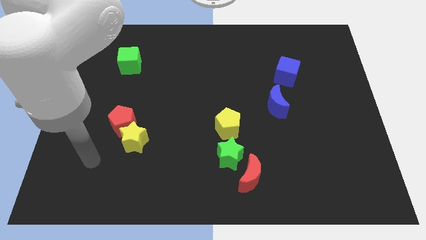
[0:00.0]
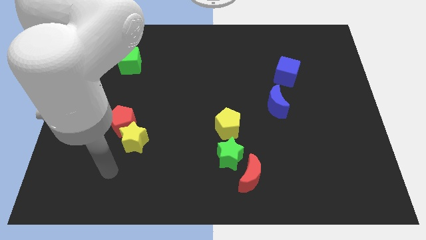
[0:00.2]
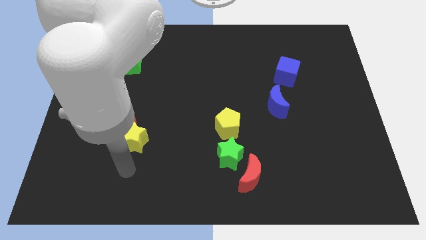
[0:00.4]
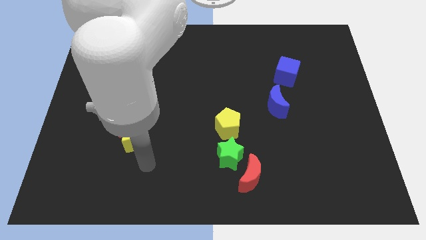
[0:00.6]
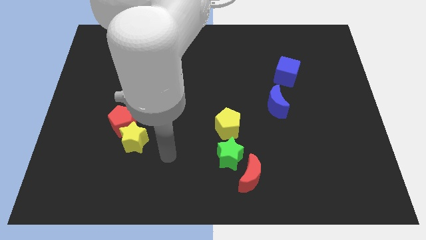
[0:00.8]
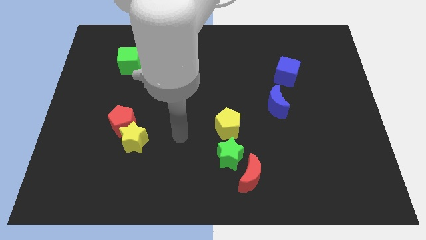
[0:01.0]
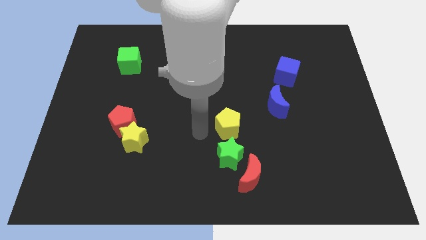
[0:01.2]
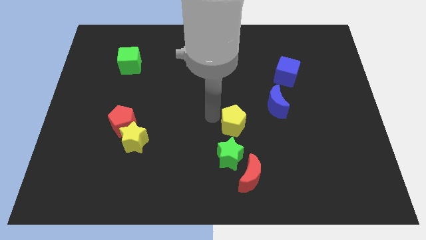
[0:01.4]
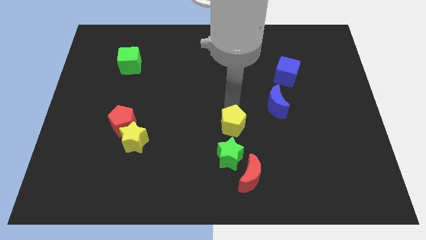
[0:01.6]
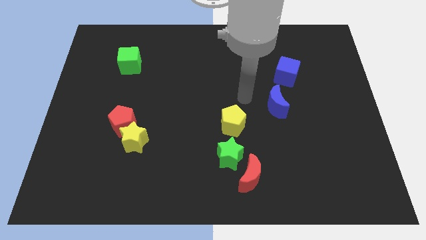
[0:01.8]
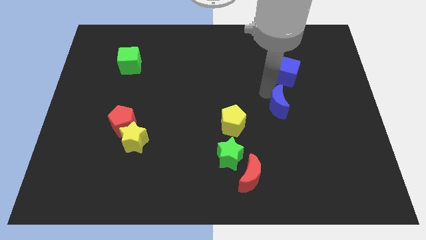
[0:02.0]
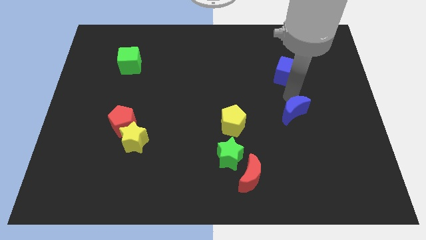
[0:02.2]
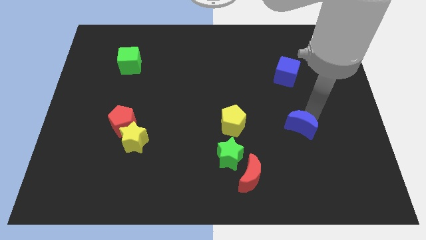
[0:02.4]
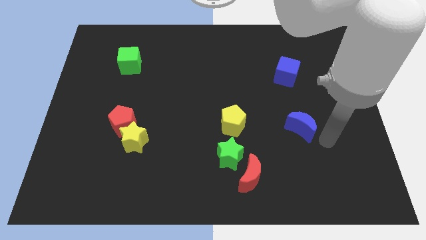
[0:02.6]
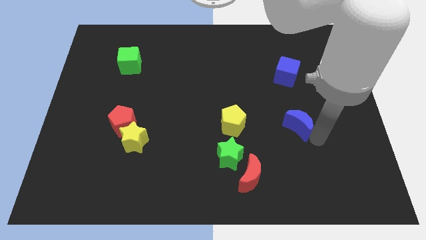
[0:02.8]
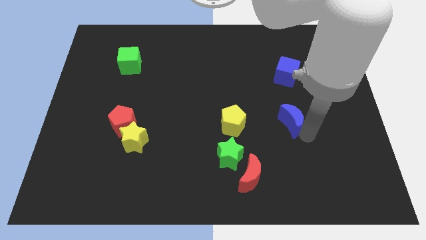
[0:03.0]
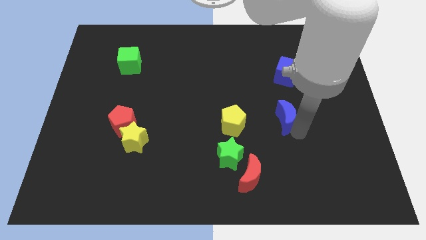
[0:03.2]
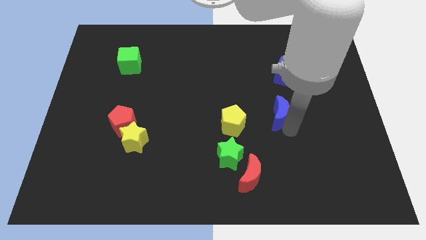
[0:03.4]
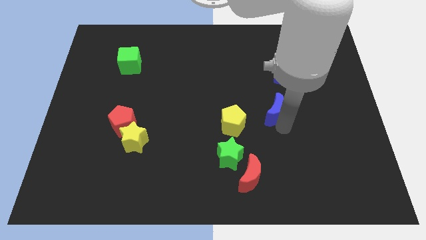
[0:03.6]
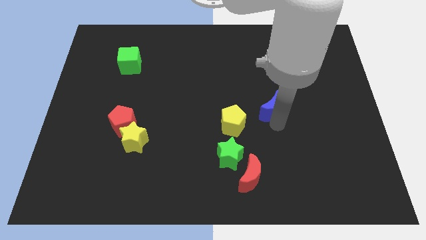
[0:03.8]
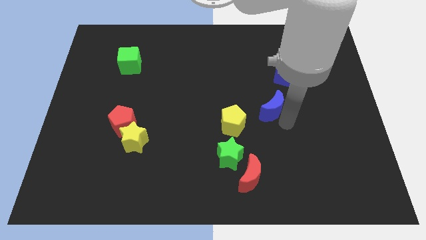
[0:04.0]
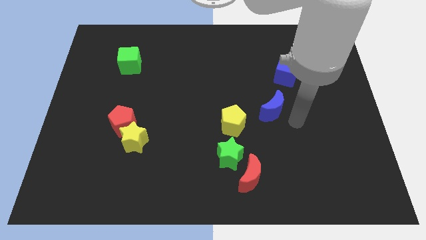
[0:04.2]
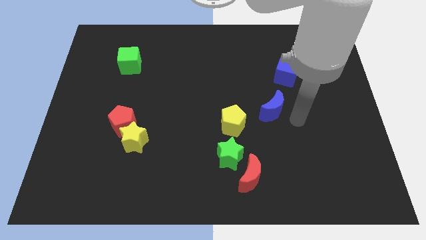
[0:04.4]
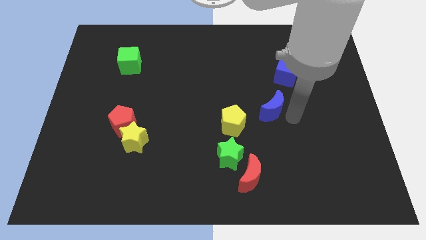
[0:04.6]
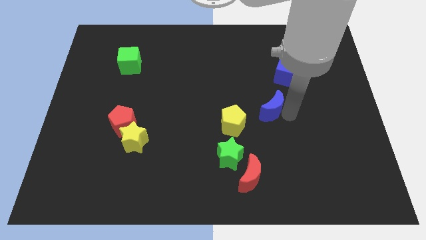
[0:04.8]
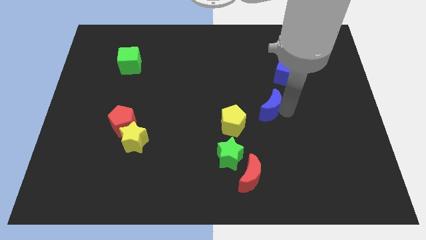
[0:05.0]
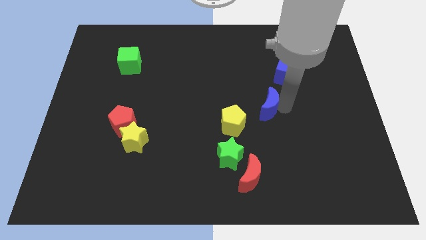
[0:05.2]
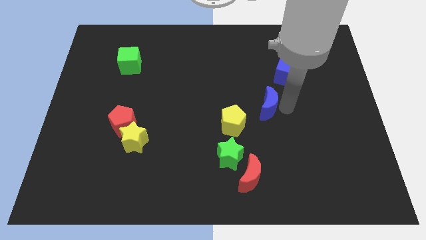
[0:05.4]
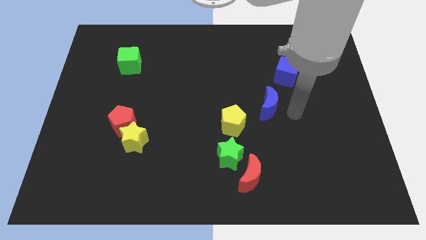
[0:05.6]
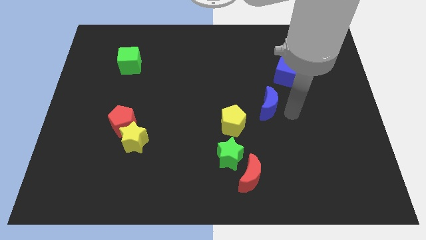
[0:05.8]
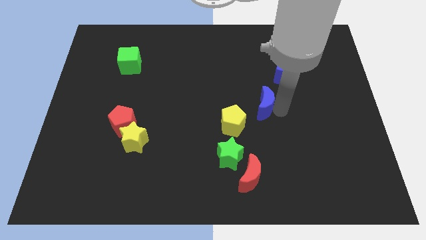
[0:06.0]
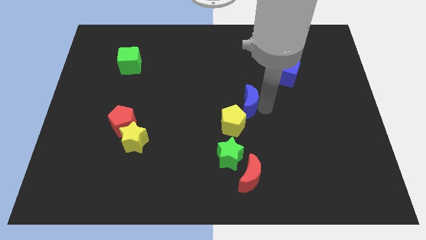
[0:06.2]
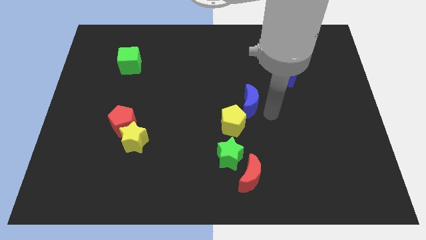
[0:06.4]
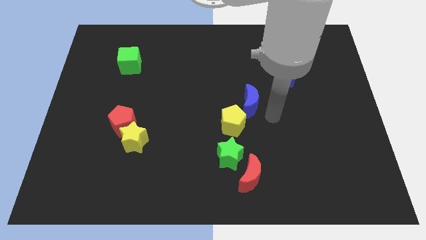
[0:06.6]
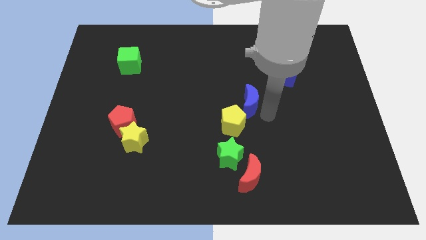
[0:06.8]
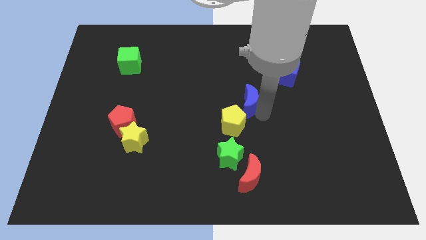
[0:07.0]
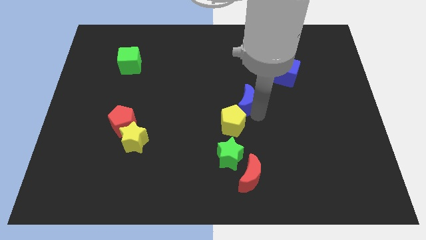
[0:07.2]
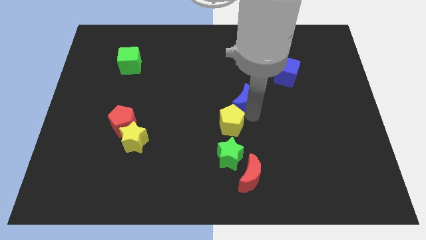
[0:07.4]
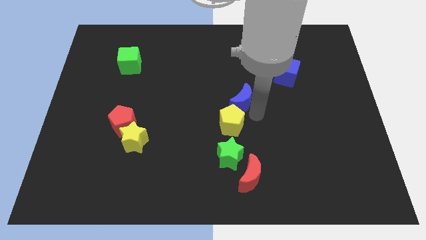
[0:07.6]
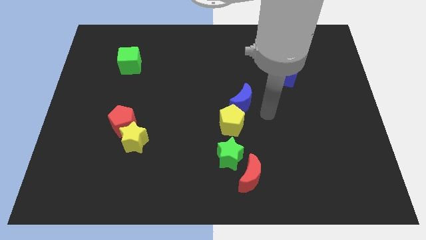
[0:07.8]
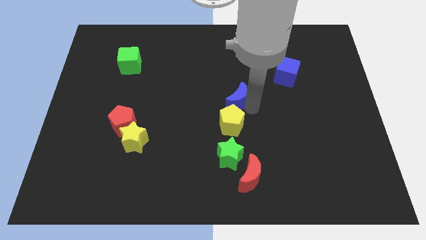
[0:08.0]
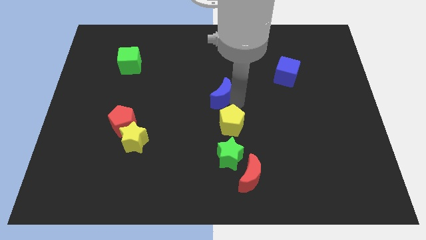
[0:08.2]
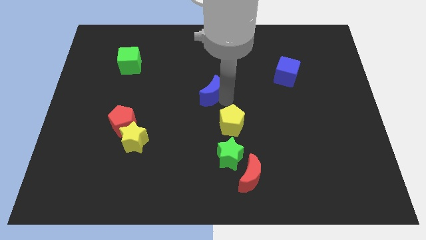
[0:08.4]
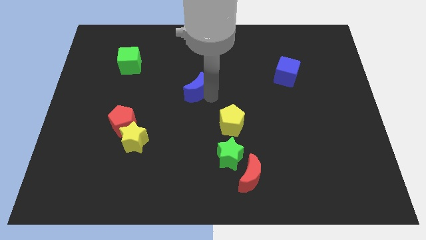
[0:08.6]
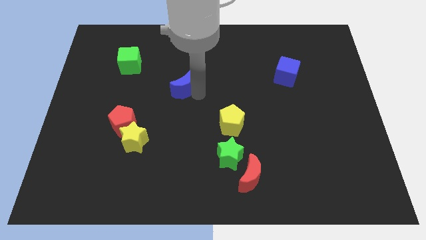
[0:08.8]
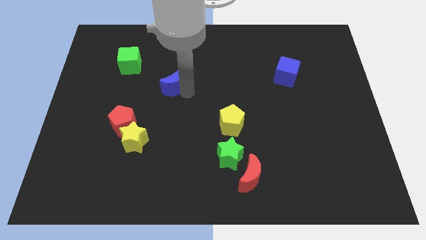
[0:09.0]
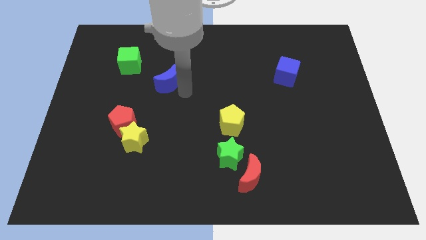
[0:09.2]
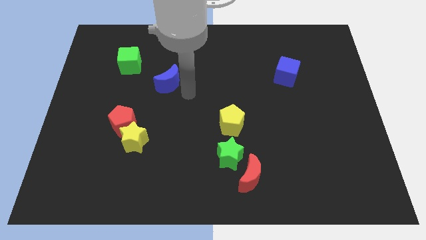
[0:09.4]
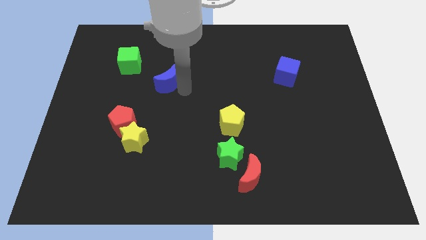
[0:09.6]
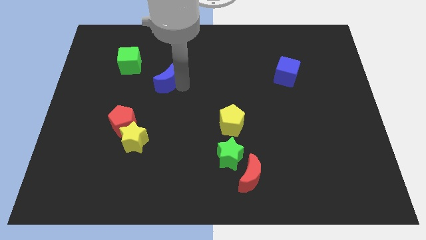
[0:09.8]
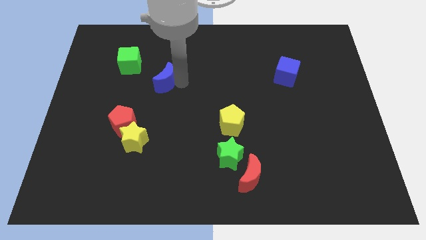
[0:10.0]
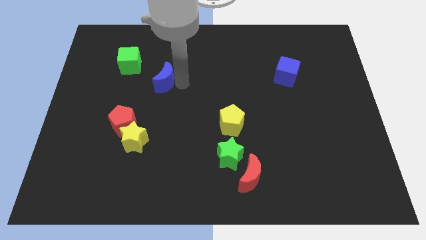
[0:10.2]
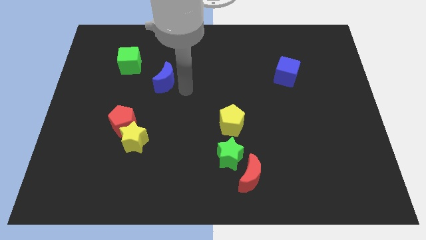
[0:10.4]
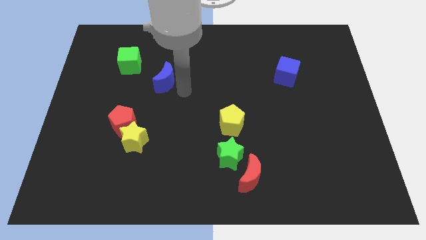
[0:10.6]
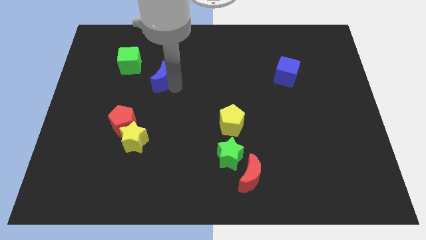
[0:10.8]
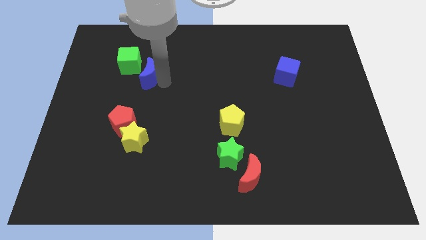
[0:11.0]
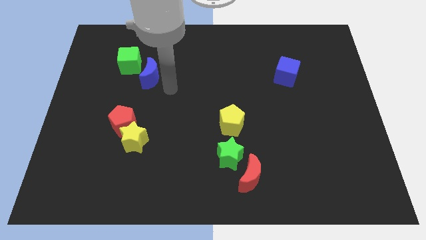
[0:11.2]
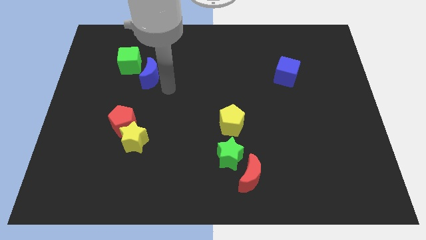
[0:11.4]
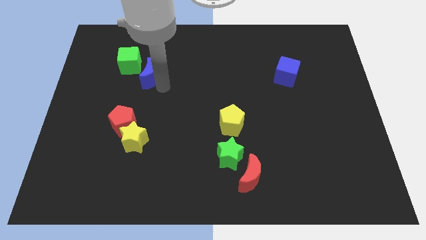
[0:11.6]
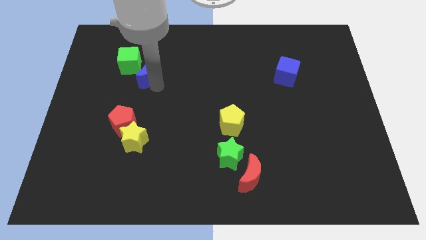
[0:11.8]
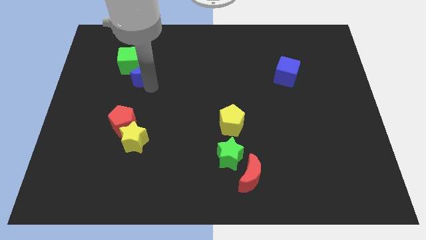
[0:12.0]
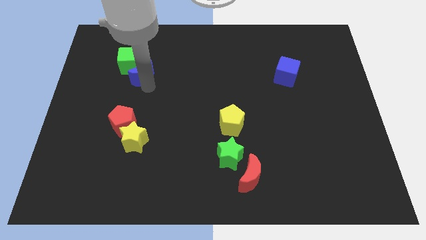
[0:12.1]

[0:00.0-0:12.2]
push the blue moon towards the green cube

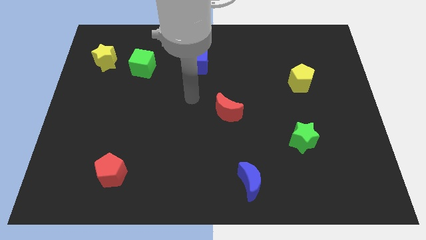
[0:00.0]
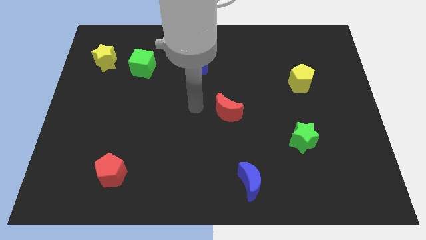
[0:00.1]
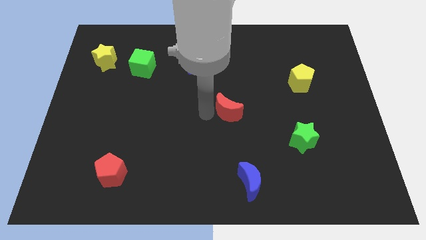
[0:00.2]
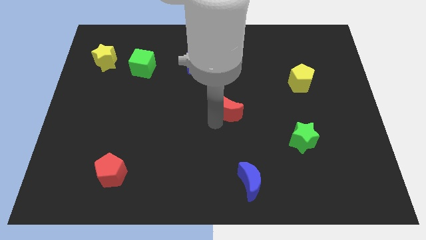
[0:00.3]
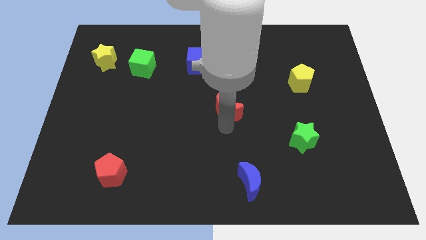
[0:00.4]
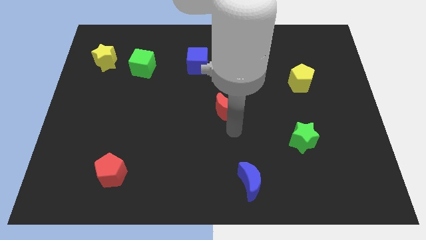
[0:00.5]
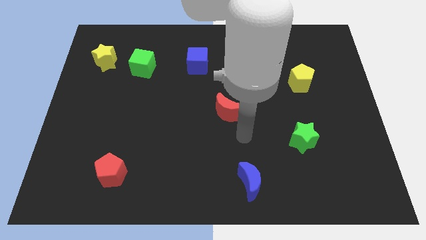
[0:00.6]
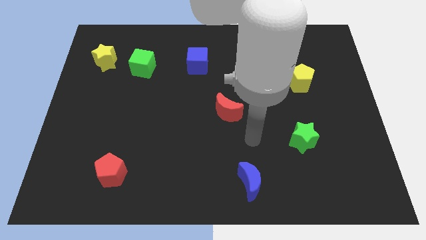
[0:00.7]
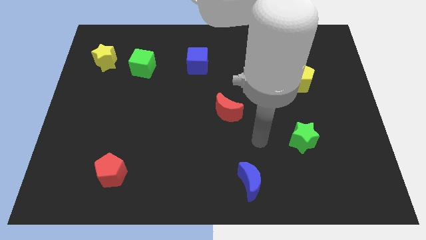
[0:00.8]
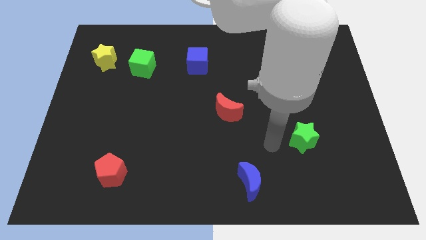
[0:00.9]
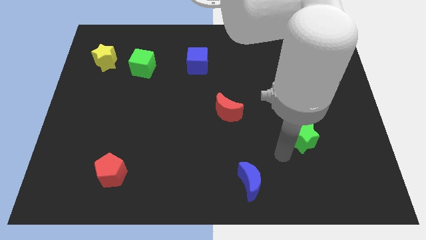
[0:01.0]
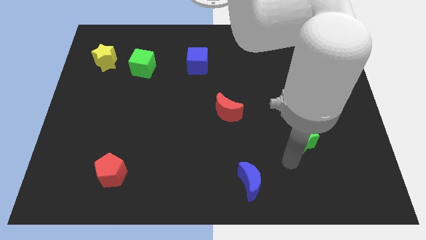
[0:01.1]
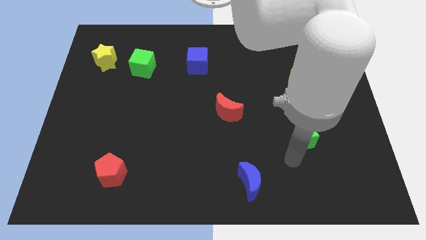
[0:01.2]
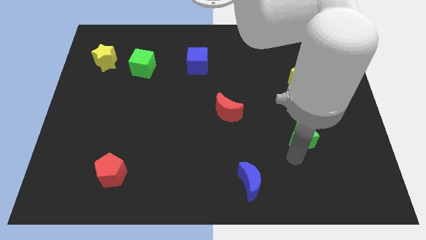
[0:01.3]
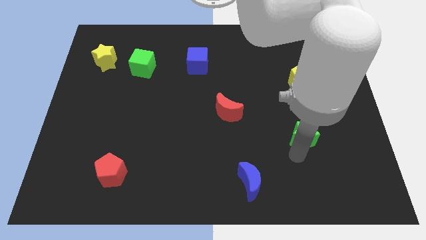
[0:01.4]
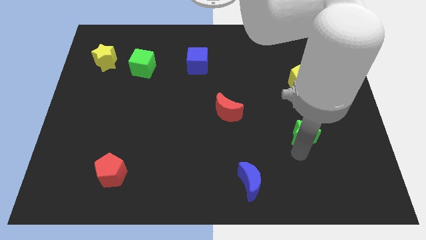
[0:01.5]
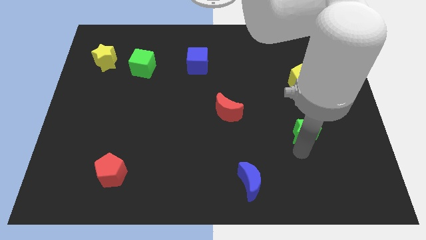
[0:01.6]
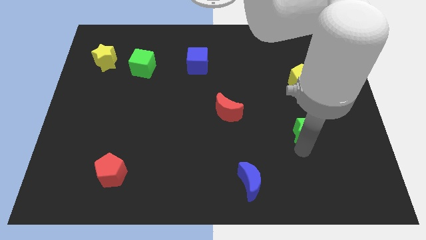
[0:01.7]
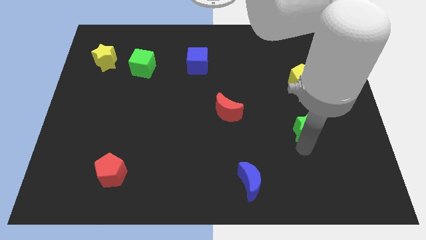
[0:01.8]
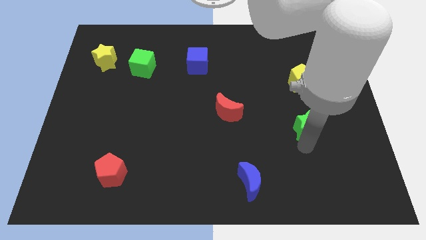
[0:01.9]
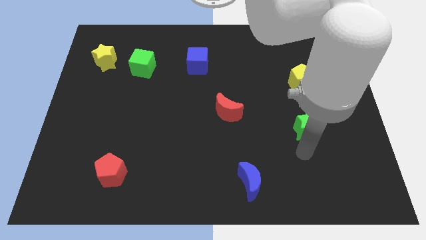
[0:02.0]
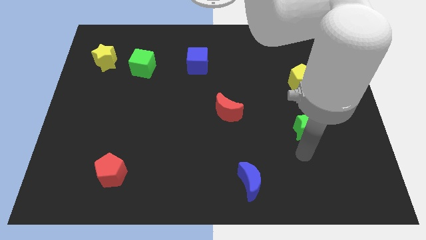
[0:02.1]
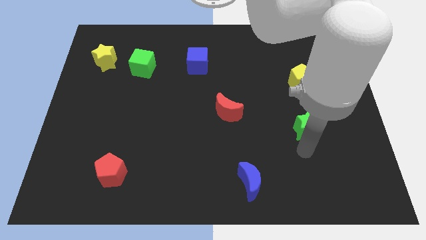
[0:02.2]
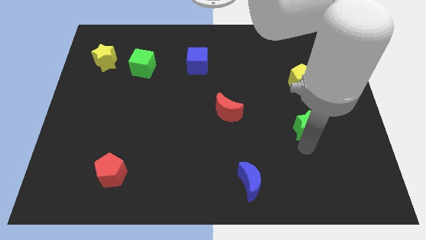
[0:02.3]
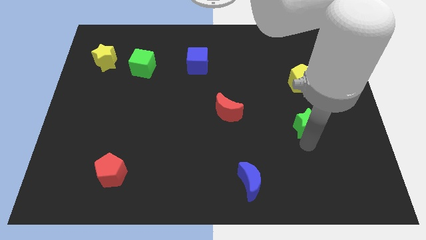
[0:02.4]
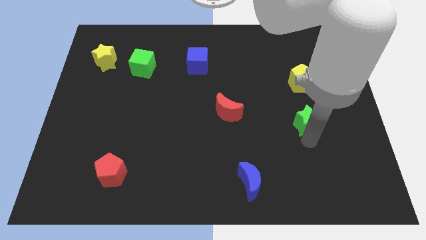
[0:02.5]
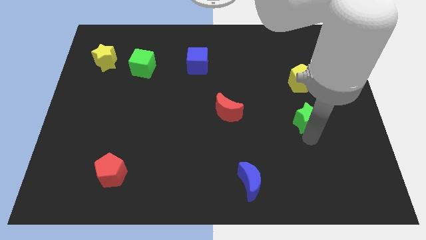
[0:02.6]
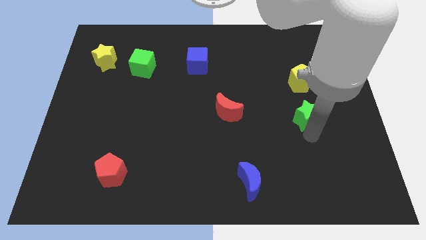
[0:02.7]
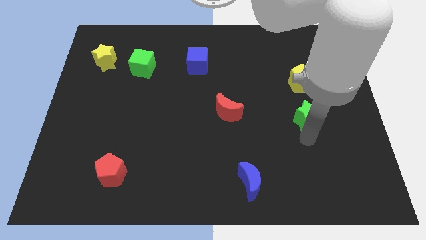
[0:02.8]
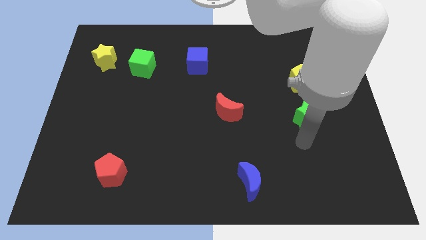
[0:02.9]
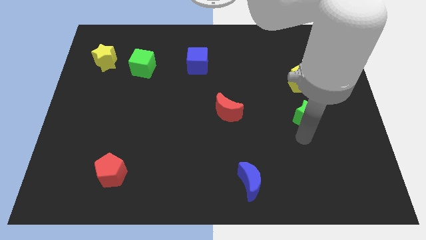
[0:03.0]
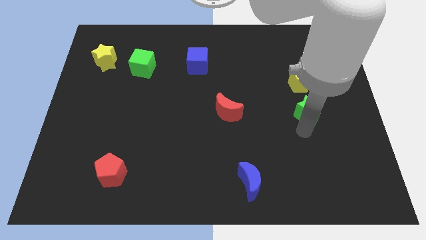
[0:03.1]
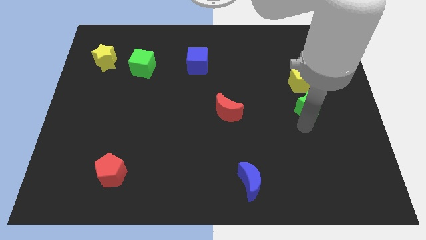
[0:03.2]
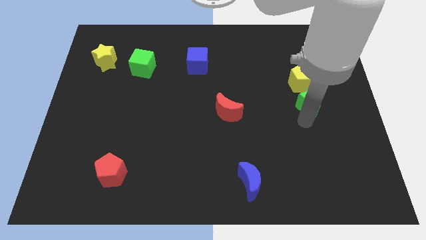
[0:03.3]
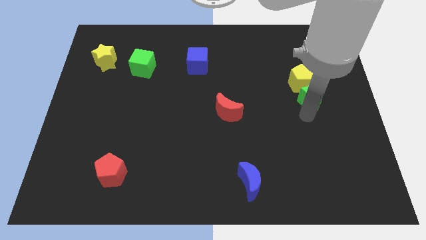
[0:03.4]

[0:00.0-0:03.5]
slide the green star next to the yellow pentagon
